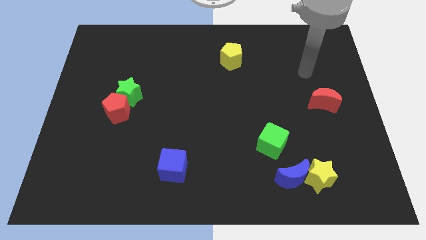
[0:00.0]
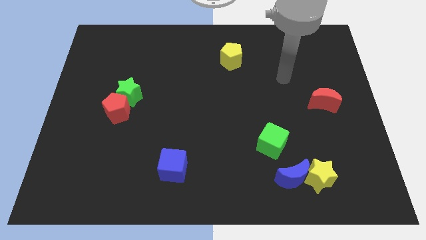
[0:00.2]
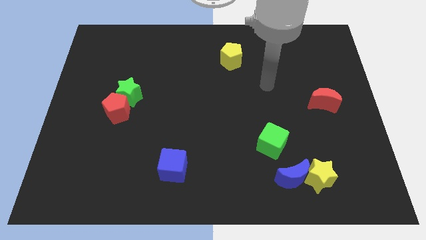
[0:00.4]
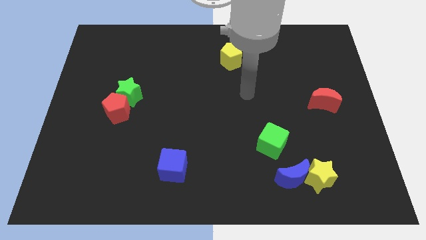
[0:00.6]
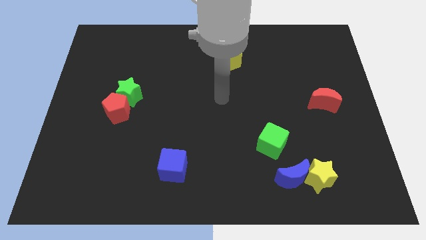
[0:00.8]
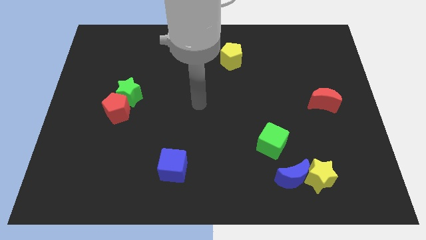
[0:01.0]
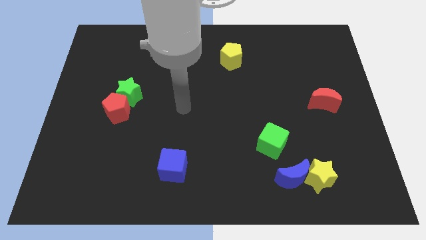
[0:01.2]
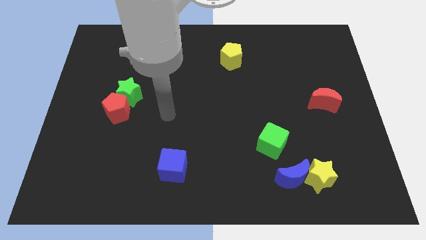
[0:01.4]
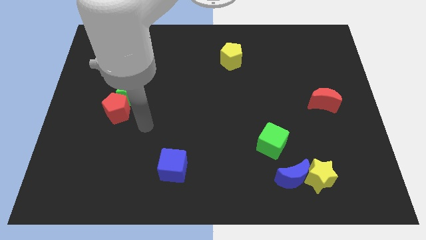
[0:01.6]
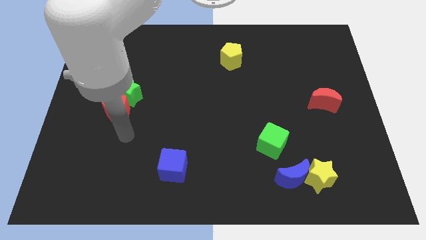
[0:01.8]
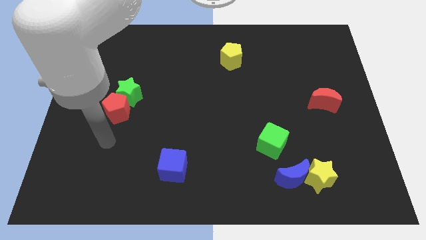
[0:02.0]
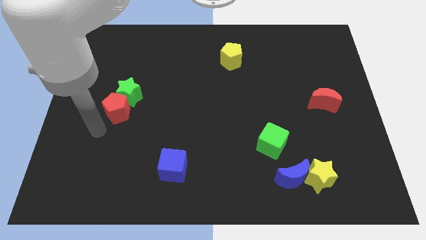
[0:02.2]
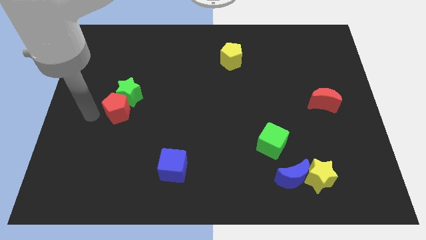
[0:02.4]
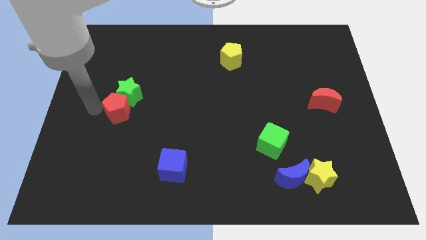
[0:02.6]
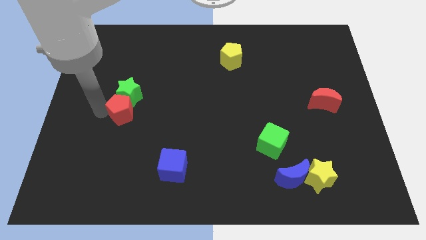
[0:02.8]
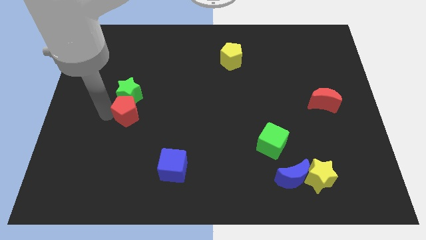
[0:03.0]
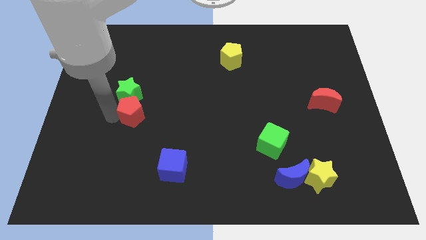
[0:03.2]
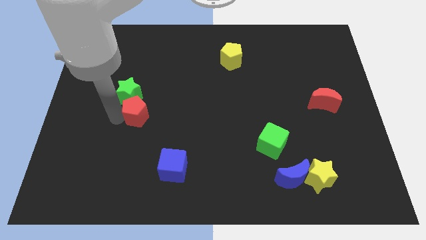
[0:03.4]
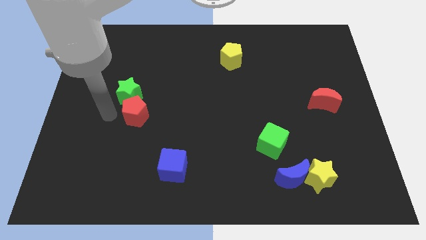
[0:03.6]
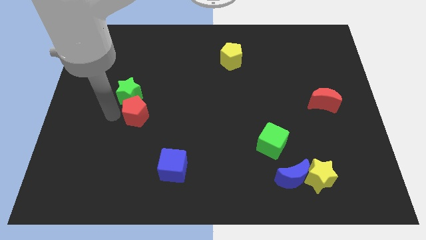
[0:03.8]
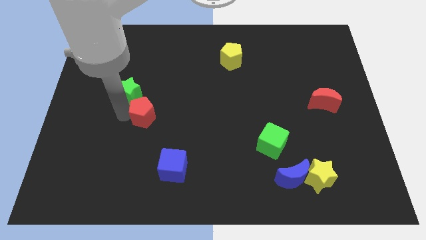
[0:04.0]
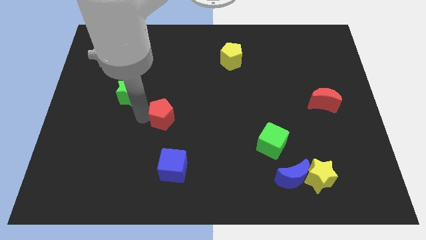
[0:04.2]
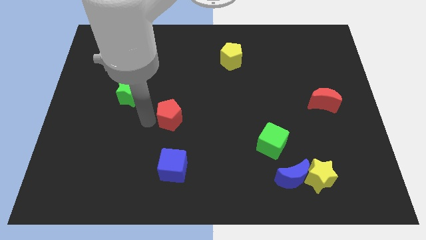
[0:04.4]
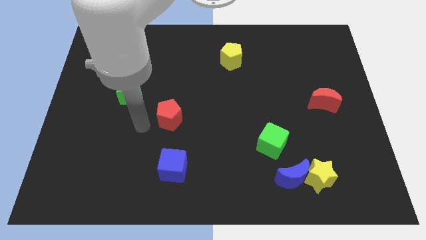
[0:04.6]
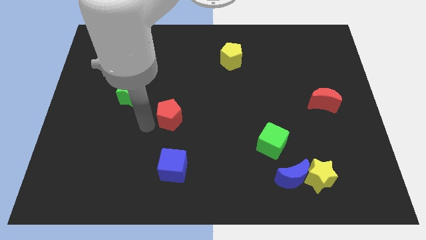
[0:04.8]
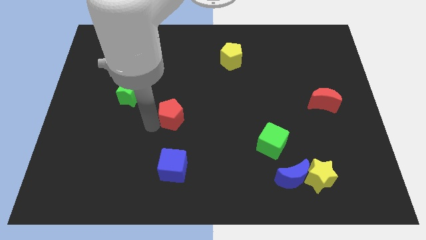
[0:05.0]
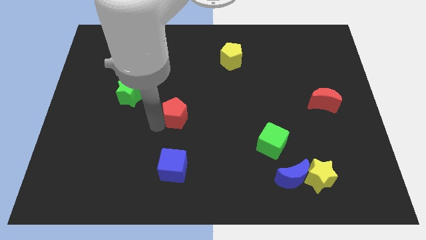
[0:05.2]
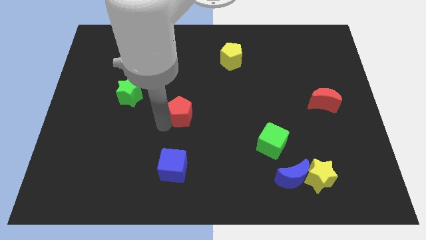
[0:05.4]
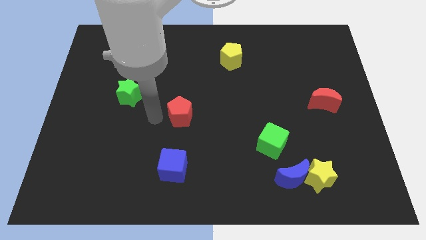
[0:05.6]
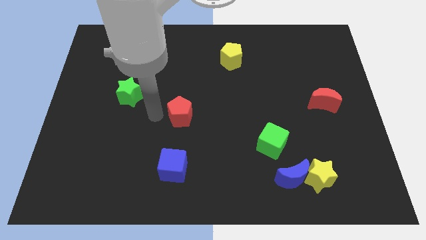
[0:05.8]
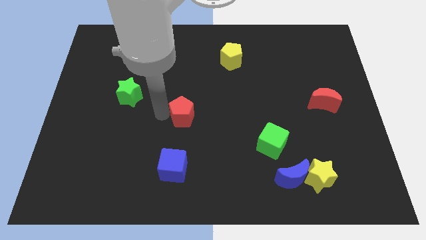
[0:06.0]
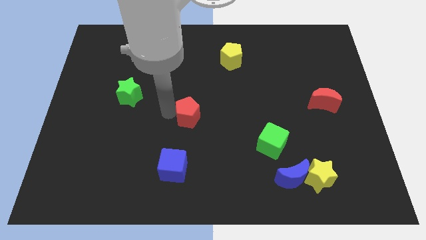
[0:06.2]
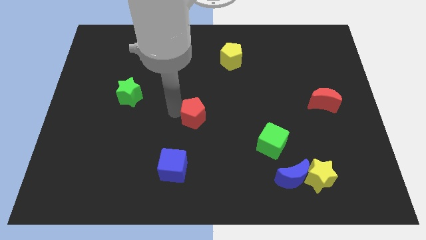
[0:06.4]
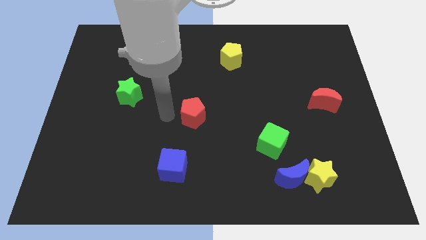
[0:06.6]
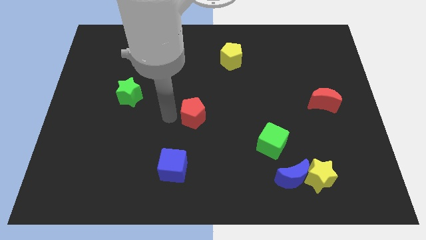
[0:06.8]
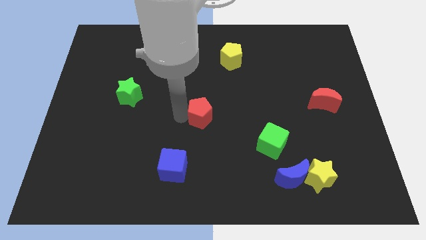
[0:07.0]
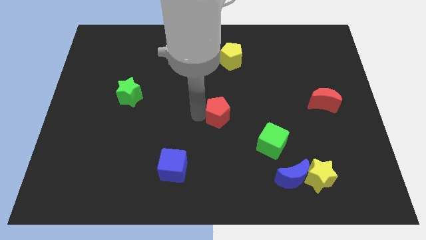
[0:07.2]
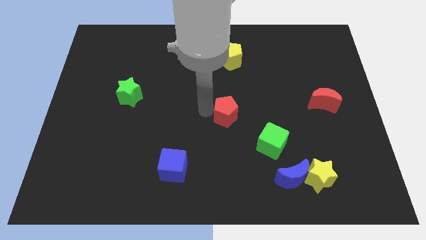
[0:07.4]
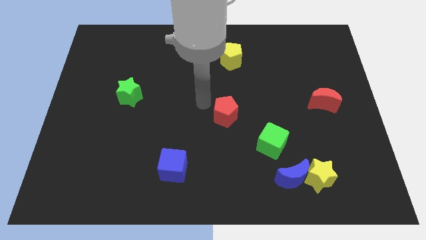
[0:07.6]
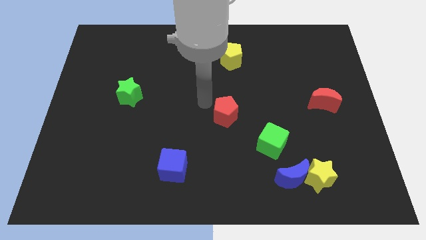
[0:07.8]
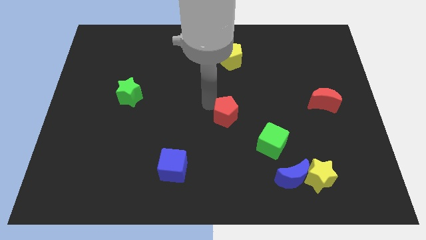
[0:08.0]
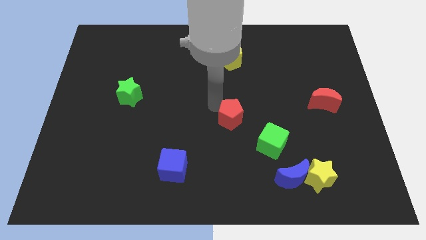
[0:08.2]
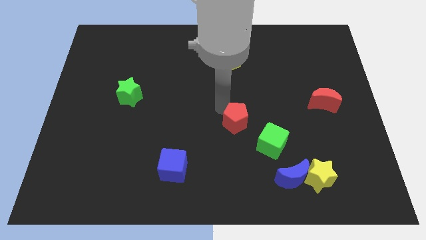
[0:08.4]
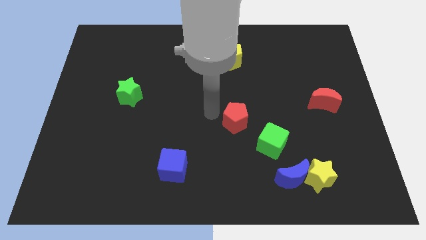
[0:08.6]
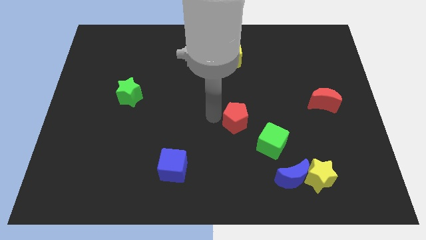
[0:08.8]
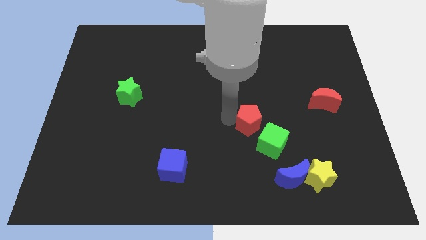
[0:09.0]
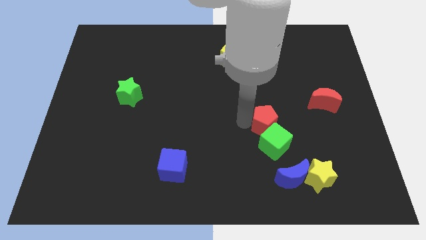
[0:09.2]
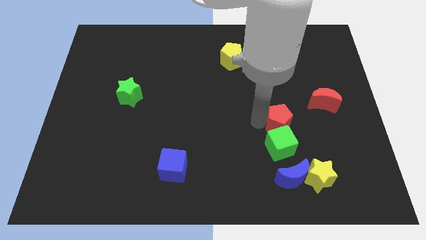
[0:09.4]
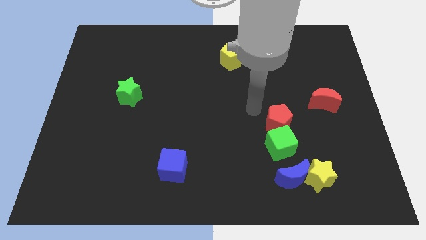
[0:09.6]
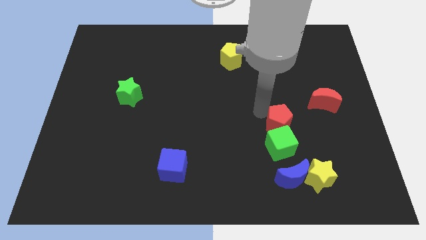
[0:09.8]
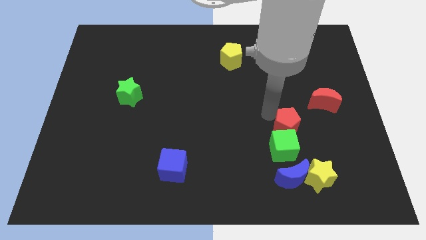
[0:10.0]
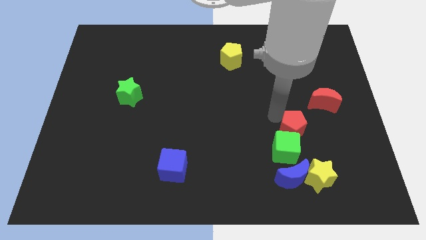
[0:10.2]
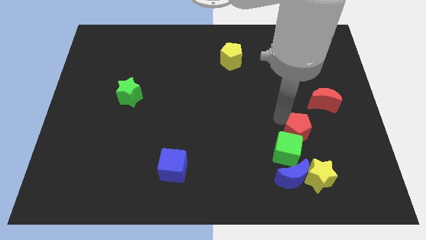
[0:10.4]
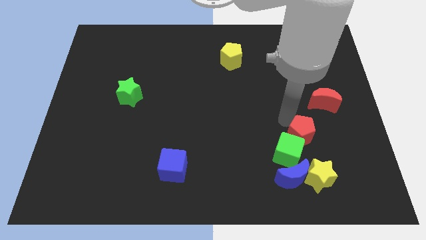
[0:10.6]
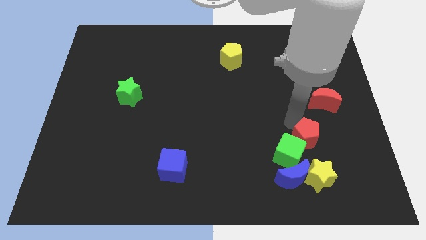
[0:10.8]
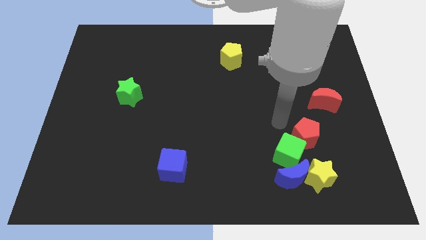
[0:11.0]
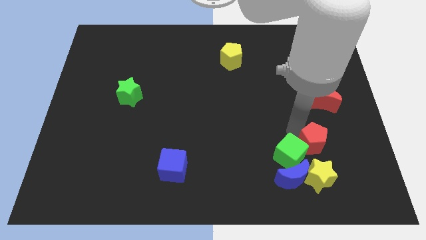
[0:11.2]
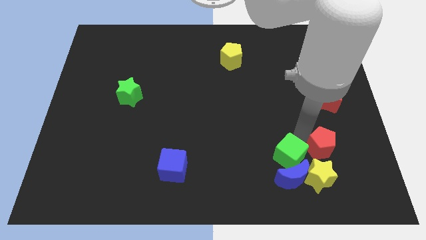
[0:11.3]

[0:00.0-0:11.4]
put the red pentagon diagonally up and to the right of the yellow star

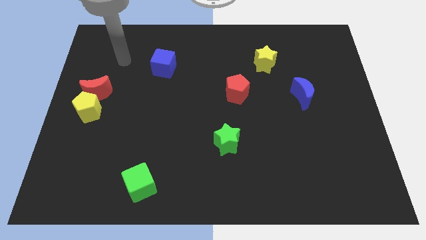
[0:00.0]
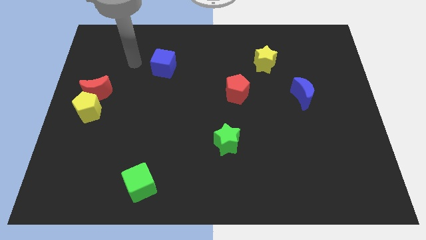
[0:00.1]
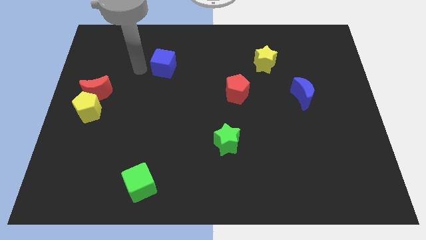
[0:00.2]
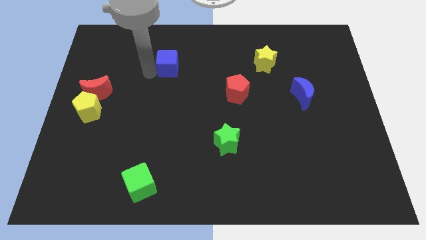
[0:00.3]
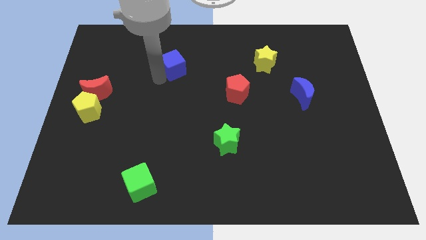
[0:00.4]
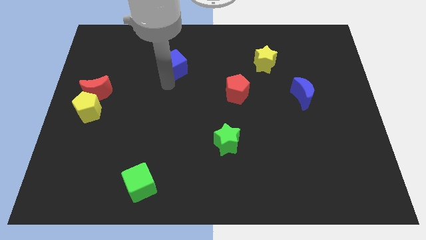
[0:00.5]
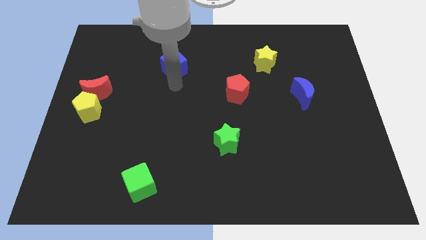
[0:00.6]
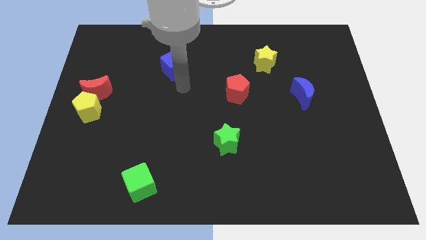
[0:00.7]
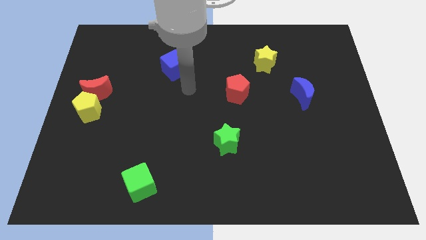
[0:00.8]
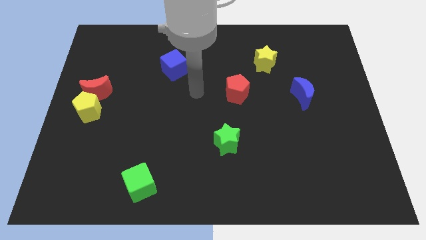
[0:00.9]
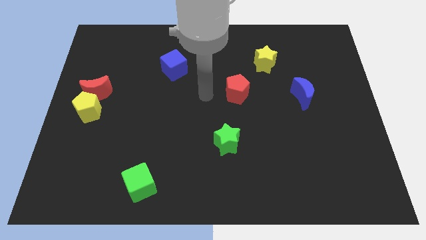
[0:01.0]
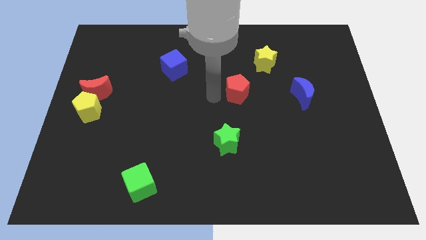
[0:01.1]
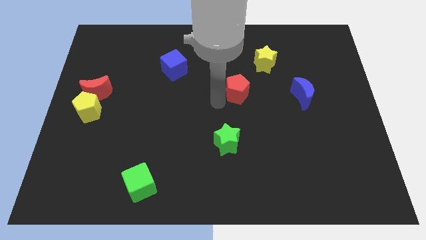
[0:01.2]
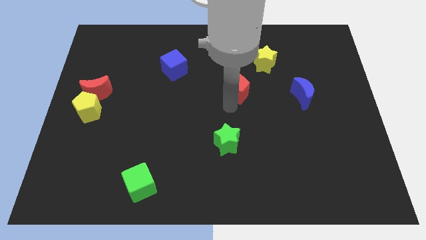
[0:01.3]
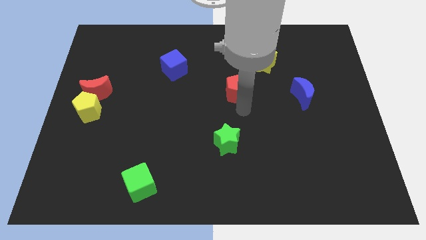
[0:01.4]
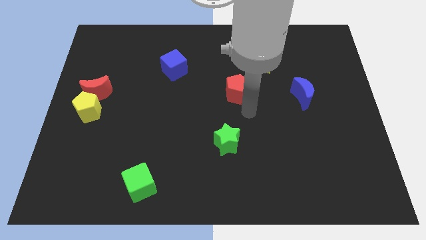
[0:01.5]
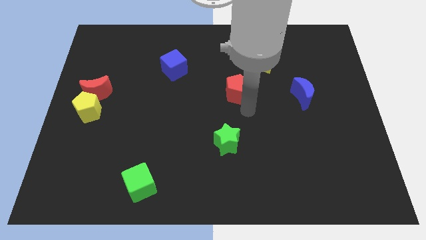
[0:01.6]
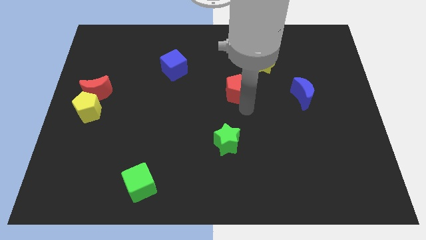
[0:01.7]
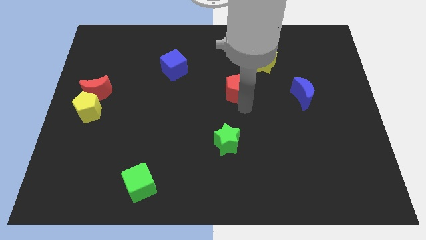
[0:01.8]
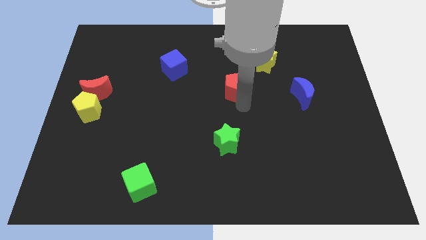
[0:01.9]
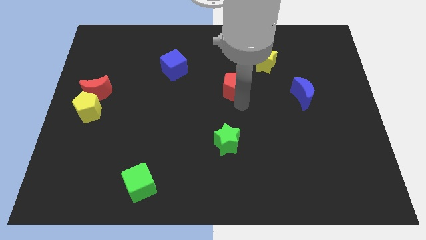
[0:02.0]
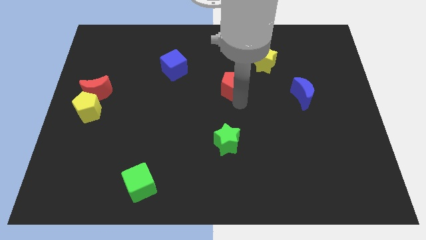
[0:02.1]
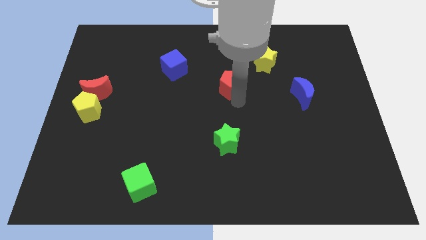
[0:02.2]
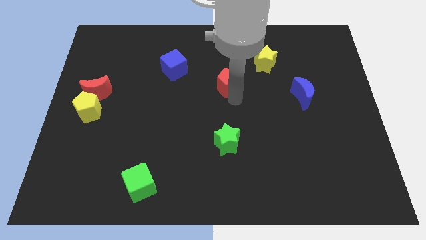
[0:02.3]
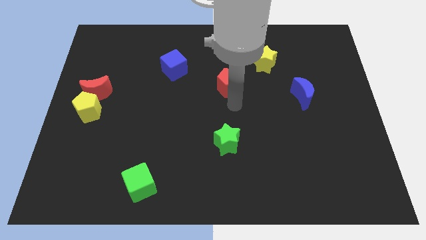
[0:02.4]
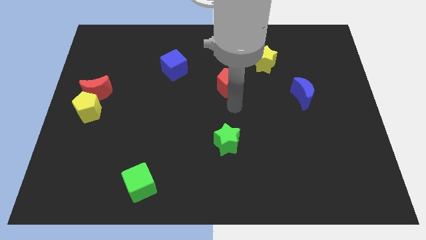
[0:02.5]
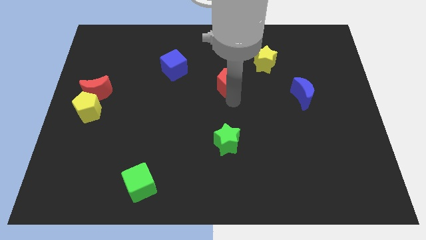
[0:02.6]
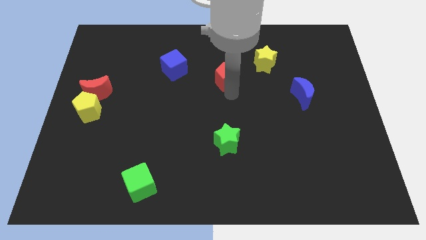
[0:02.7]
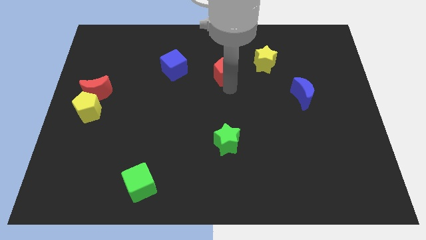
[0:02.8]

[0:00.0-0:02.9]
slide the red pentagon to the left side of the yellow star
